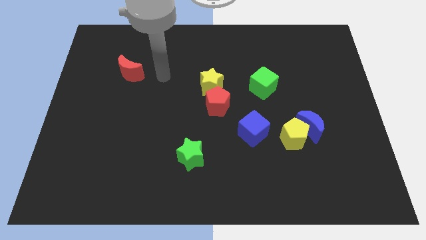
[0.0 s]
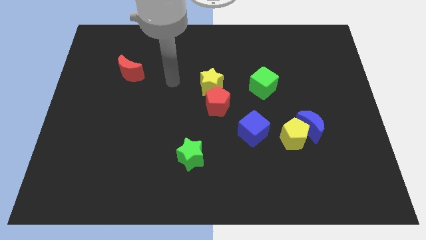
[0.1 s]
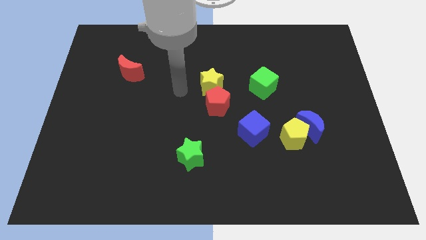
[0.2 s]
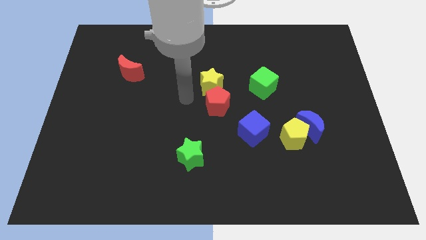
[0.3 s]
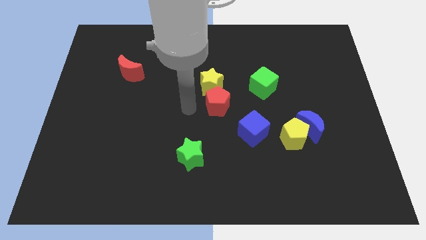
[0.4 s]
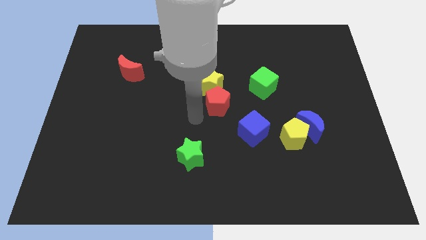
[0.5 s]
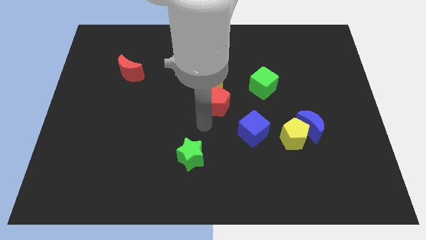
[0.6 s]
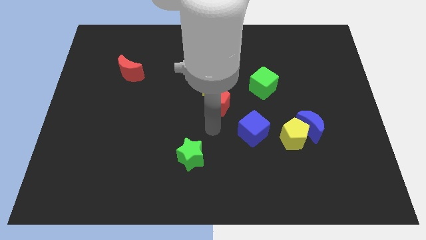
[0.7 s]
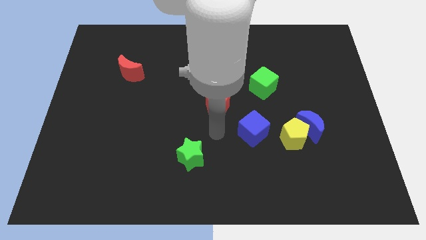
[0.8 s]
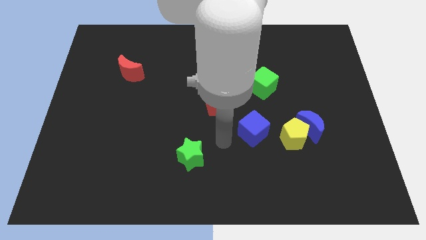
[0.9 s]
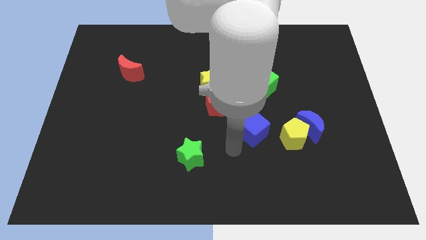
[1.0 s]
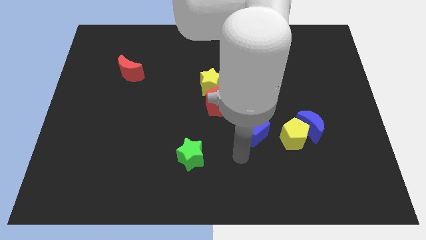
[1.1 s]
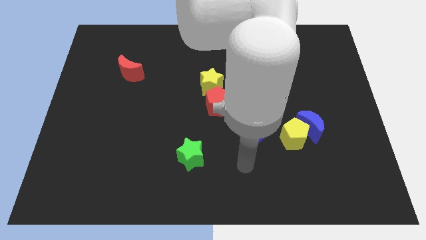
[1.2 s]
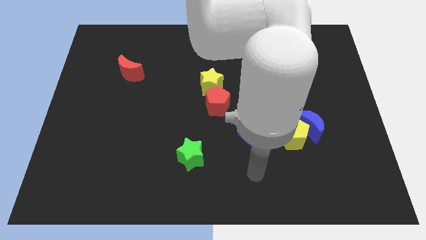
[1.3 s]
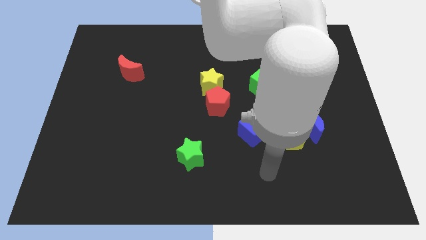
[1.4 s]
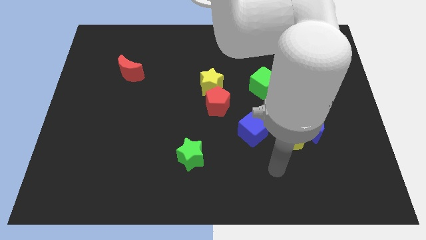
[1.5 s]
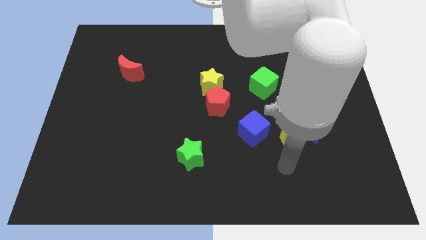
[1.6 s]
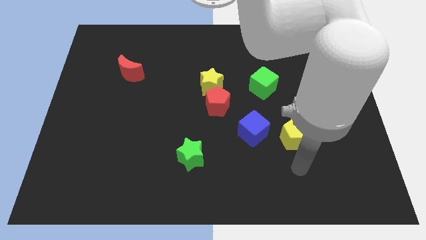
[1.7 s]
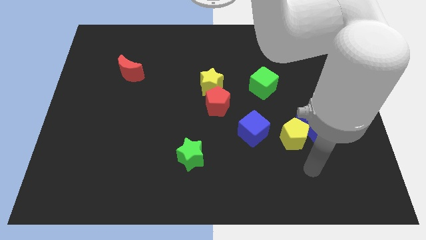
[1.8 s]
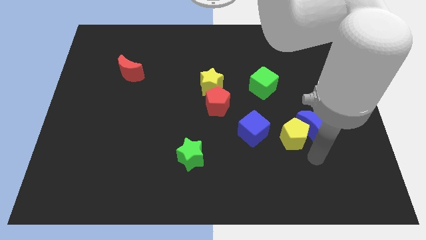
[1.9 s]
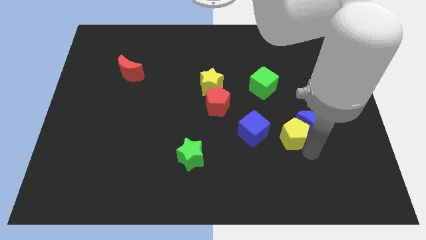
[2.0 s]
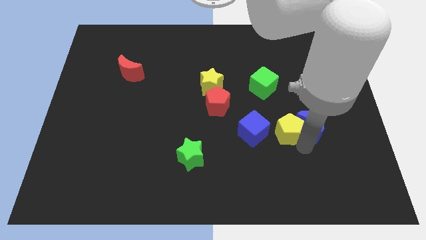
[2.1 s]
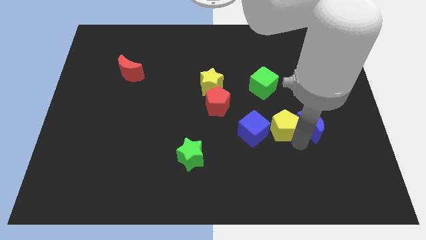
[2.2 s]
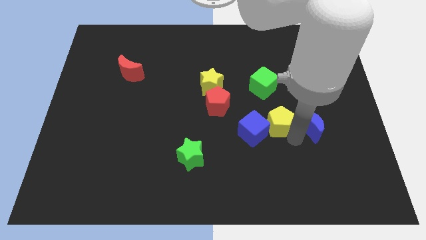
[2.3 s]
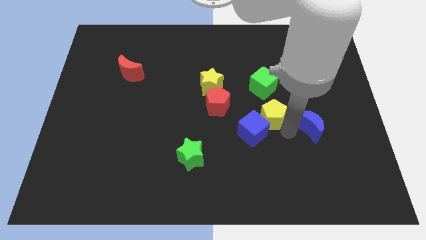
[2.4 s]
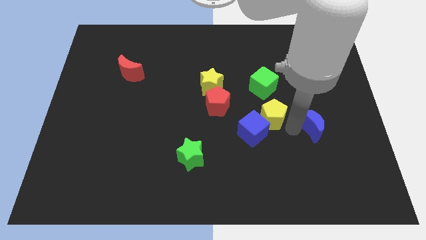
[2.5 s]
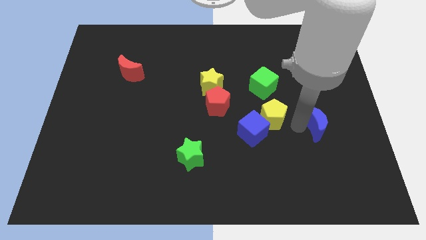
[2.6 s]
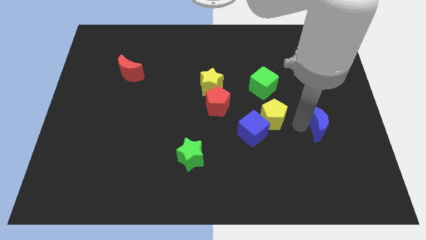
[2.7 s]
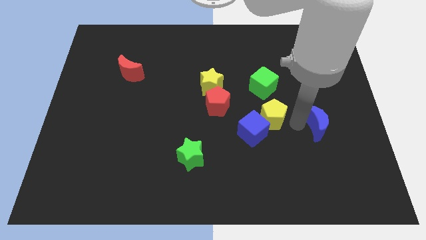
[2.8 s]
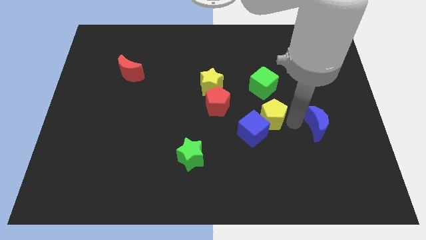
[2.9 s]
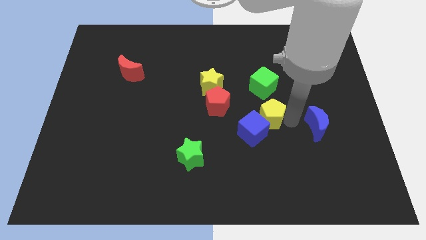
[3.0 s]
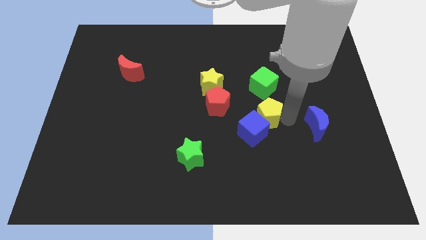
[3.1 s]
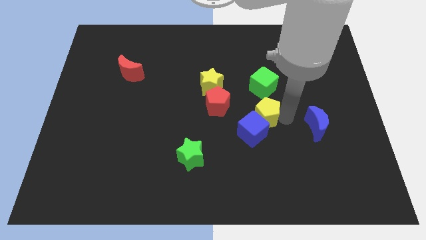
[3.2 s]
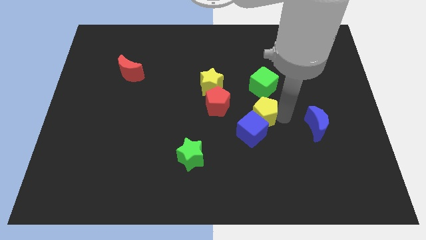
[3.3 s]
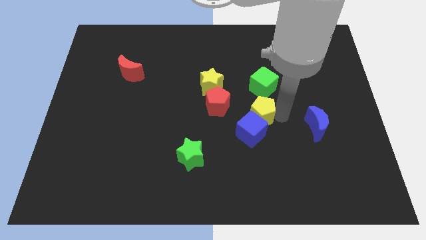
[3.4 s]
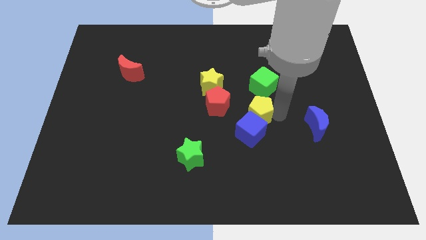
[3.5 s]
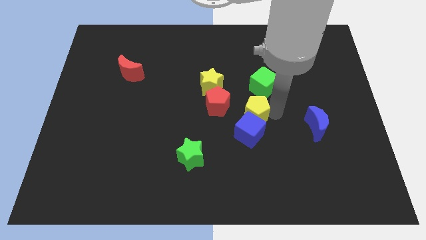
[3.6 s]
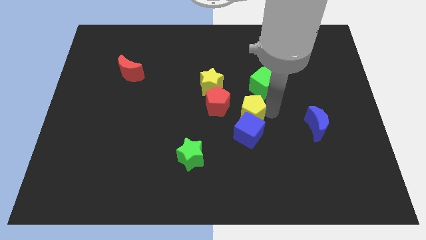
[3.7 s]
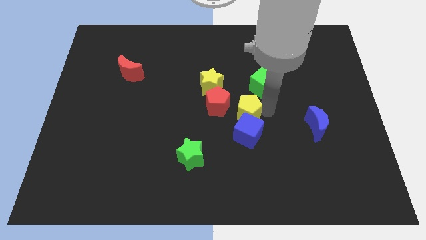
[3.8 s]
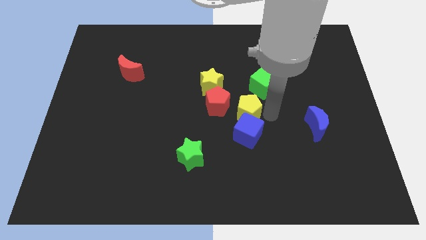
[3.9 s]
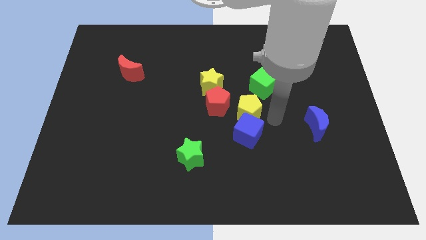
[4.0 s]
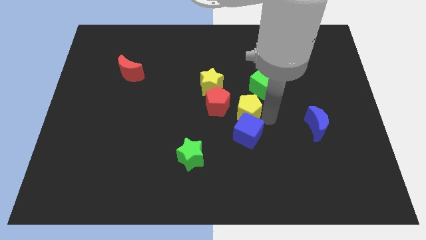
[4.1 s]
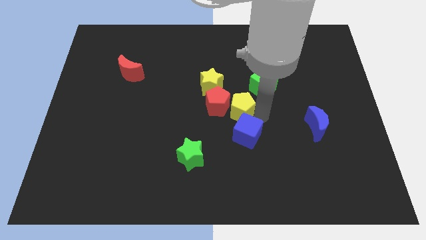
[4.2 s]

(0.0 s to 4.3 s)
push the yellow pentagon to the red pentagon

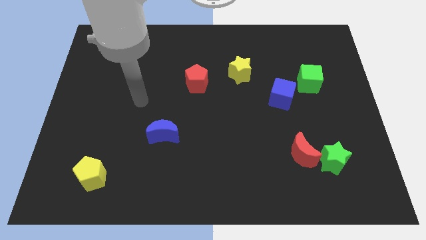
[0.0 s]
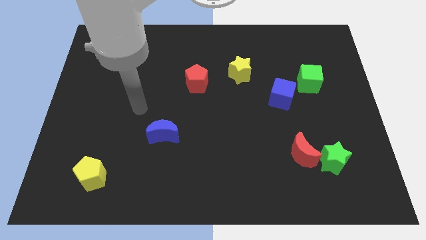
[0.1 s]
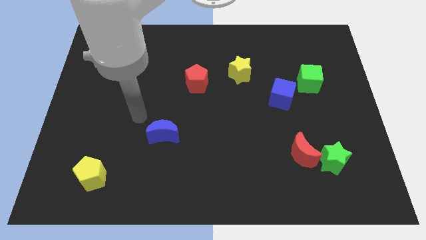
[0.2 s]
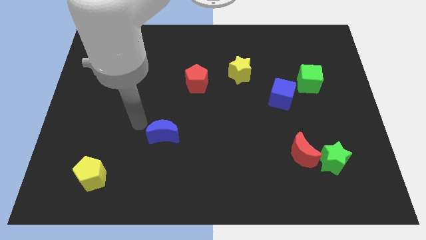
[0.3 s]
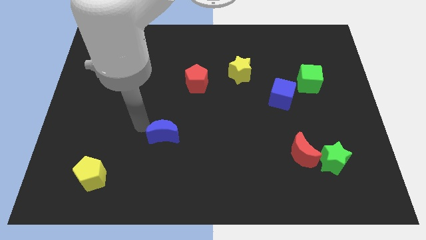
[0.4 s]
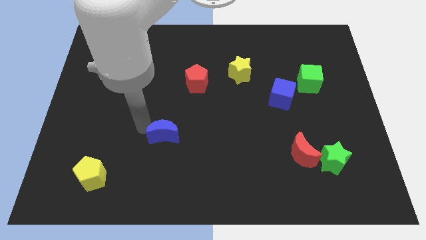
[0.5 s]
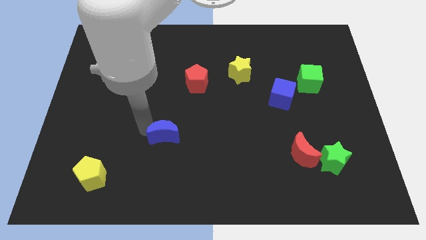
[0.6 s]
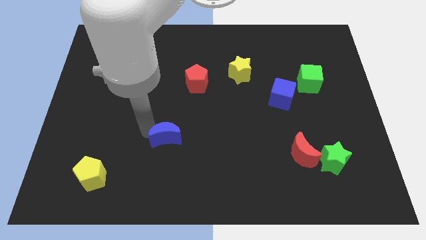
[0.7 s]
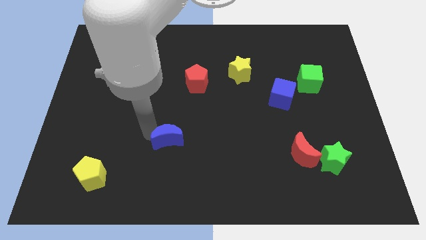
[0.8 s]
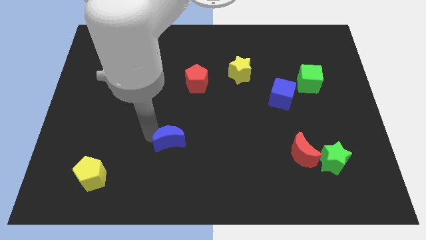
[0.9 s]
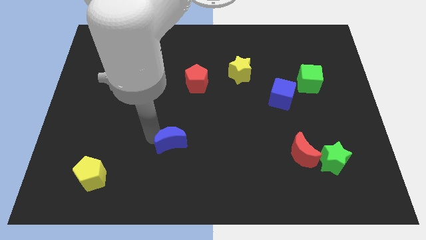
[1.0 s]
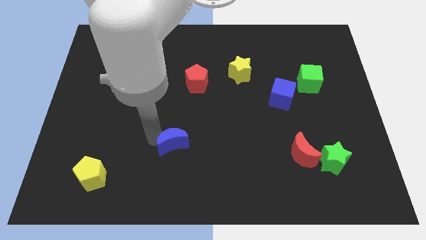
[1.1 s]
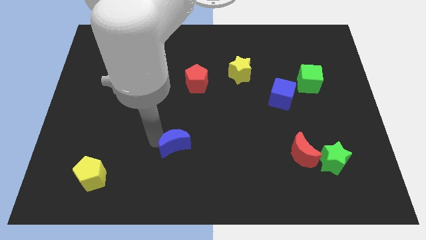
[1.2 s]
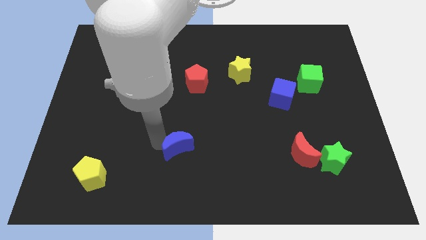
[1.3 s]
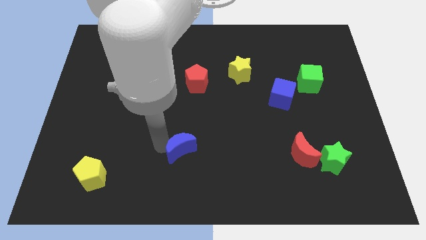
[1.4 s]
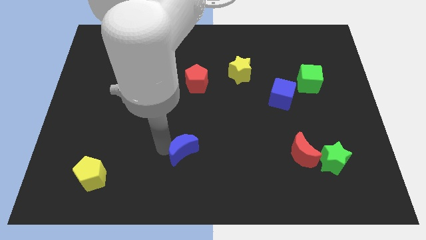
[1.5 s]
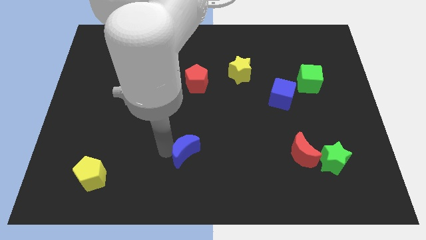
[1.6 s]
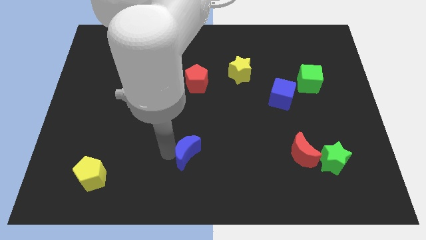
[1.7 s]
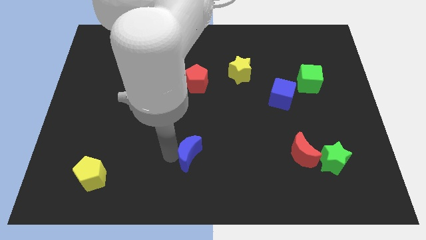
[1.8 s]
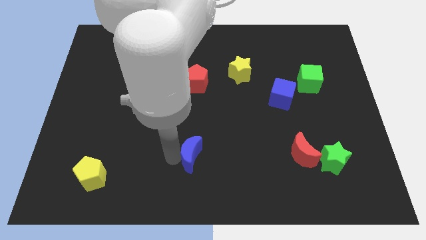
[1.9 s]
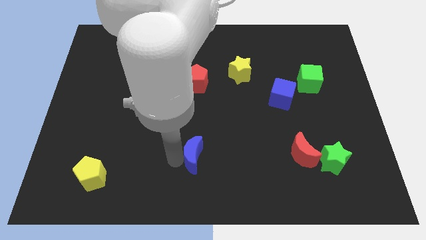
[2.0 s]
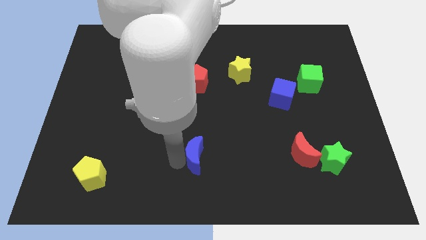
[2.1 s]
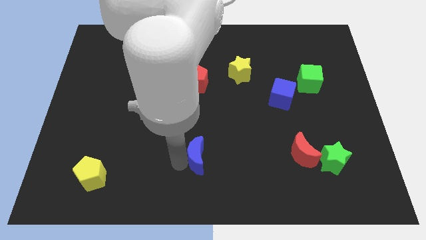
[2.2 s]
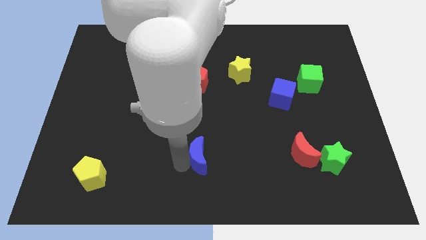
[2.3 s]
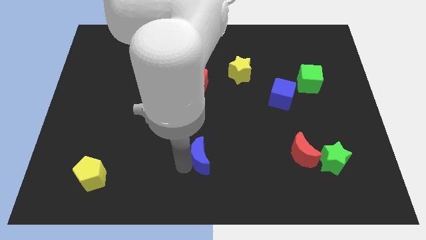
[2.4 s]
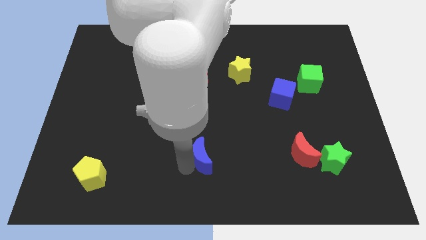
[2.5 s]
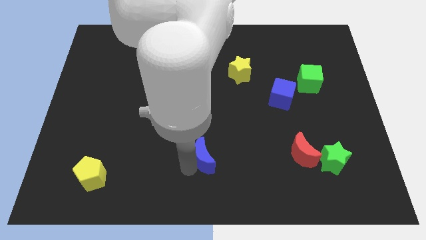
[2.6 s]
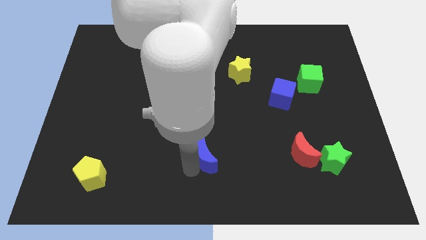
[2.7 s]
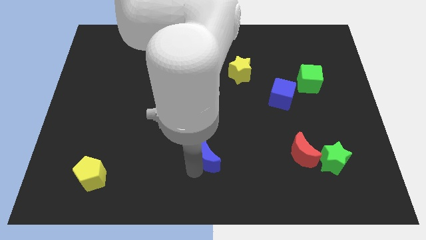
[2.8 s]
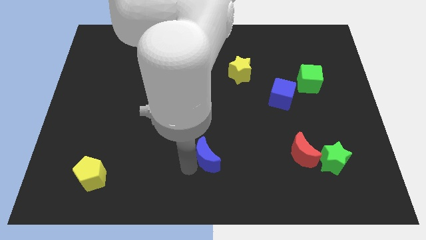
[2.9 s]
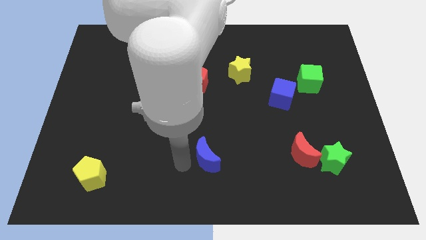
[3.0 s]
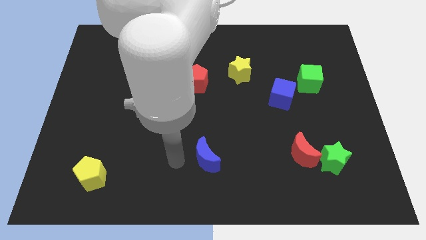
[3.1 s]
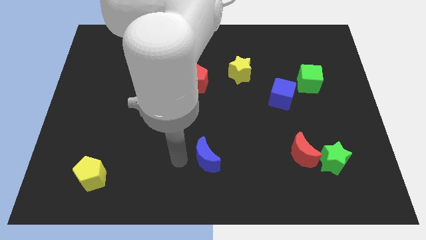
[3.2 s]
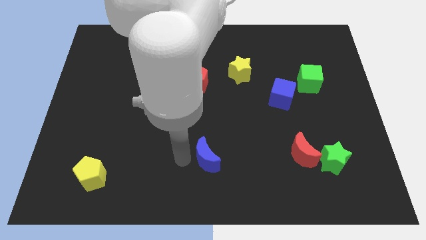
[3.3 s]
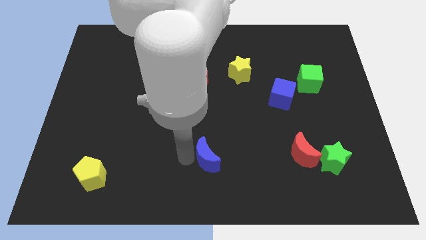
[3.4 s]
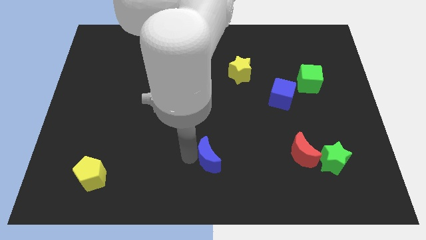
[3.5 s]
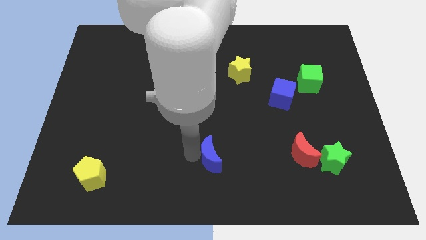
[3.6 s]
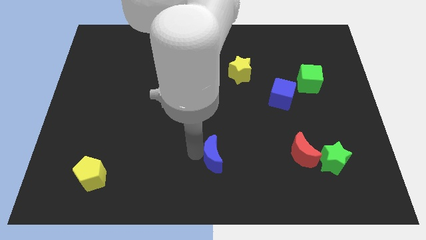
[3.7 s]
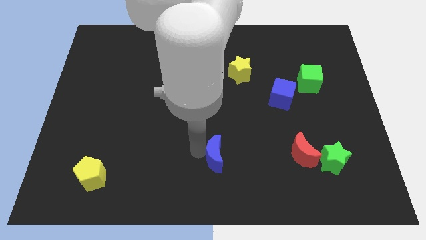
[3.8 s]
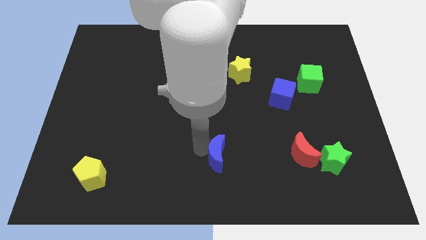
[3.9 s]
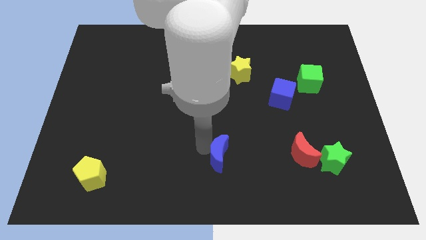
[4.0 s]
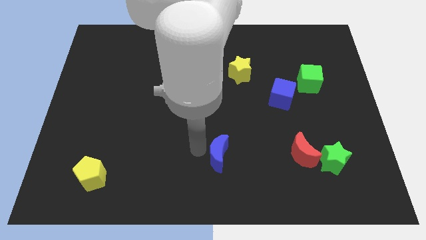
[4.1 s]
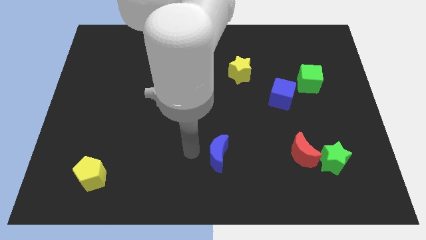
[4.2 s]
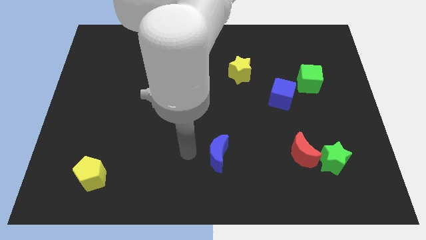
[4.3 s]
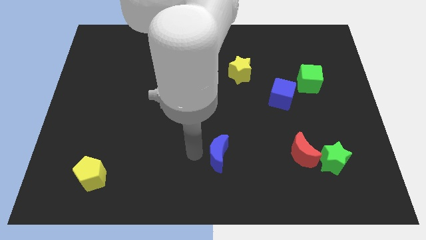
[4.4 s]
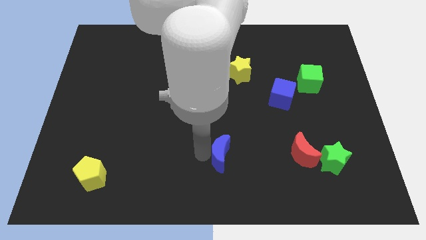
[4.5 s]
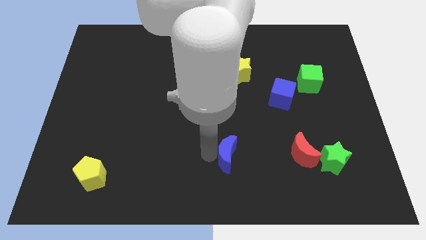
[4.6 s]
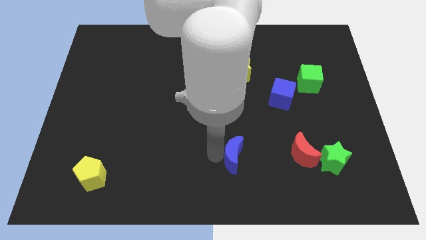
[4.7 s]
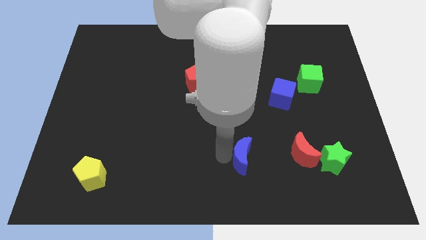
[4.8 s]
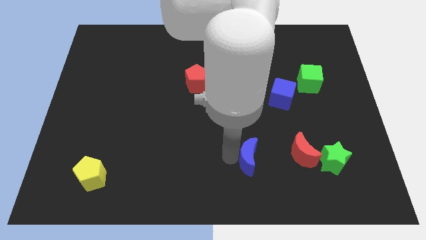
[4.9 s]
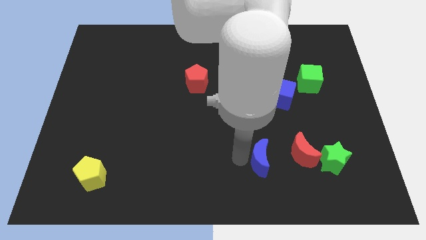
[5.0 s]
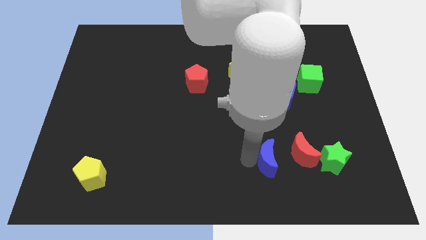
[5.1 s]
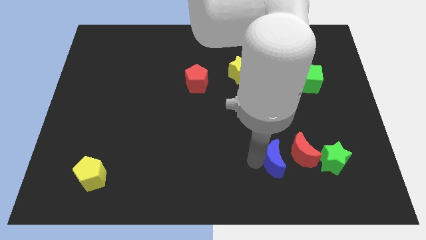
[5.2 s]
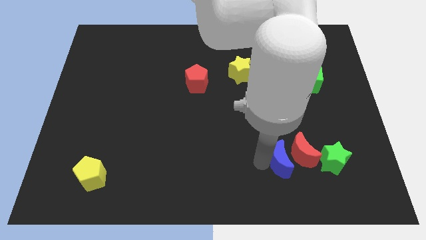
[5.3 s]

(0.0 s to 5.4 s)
move the blue moon to the red moon
